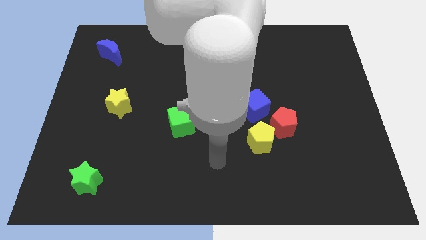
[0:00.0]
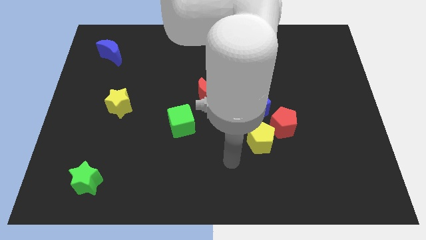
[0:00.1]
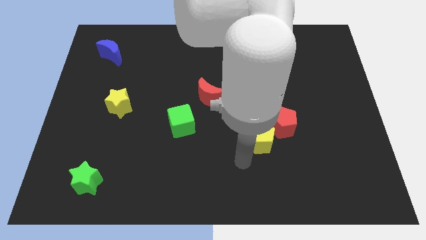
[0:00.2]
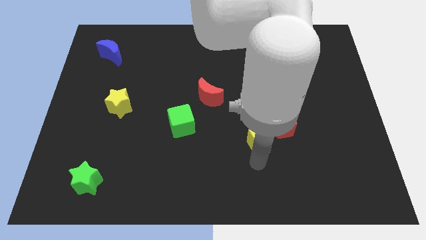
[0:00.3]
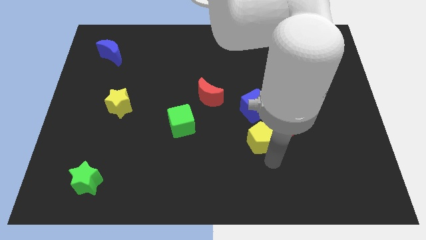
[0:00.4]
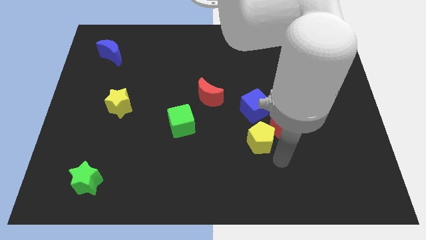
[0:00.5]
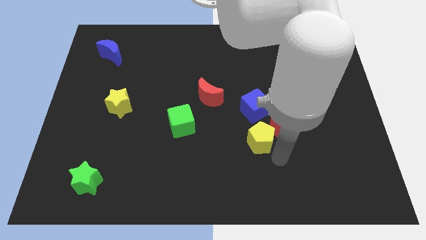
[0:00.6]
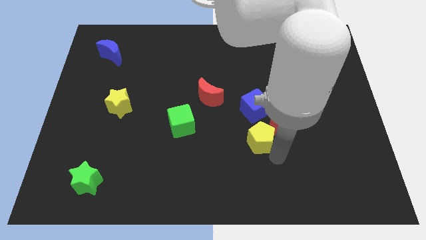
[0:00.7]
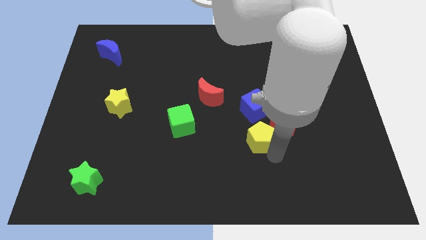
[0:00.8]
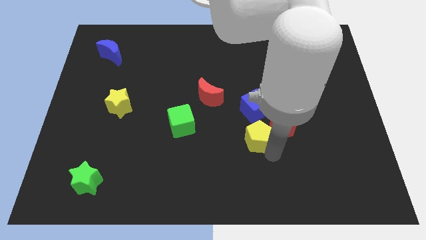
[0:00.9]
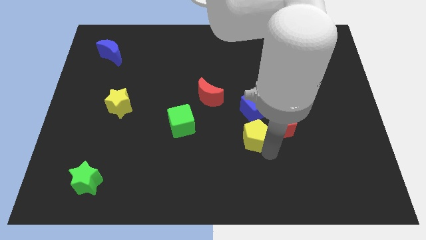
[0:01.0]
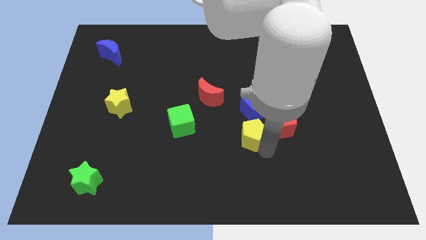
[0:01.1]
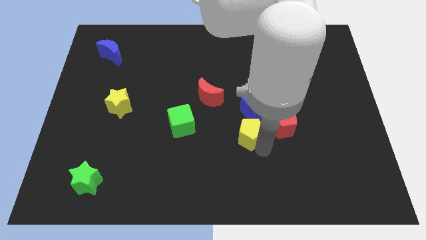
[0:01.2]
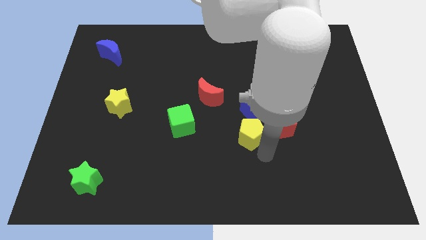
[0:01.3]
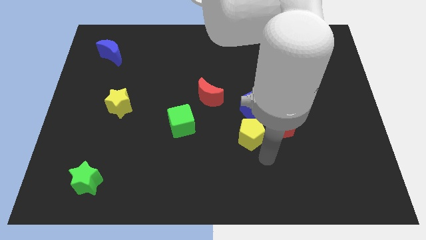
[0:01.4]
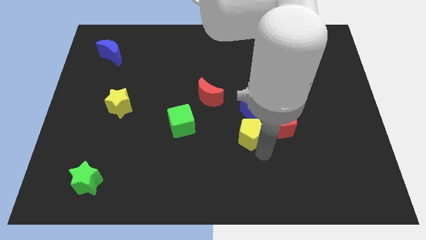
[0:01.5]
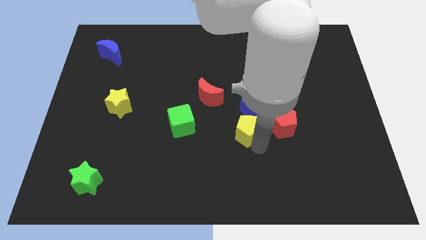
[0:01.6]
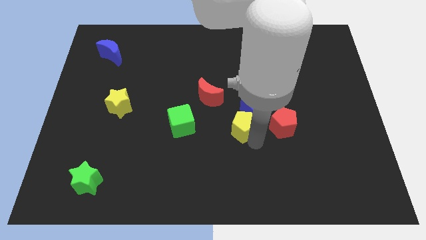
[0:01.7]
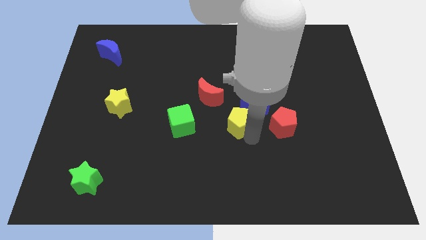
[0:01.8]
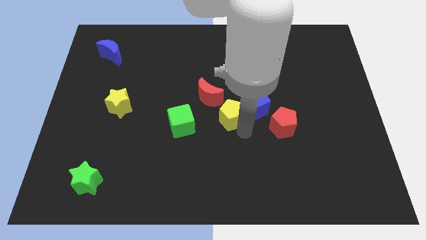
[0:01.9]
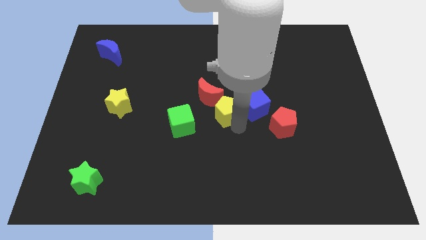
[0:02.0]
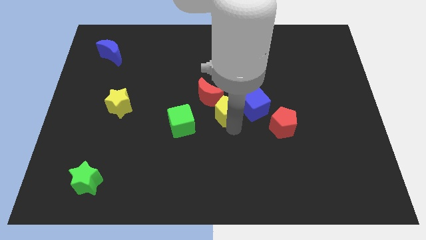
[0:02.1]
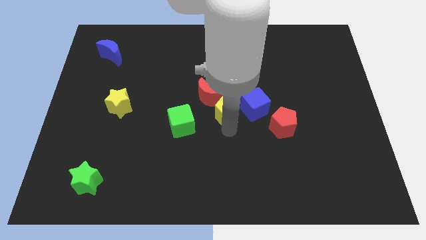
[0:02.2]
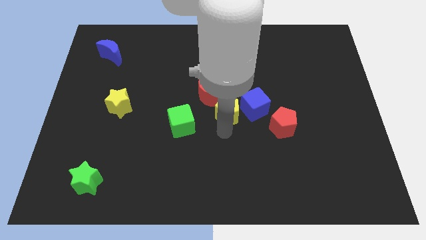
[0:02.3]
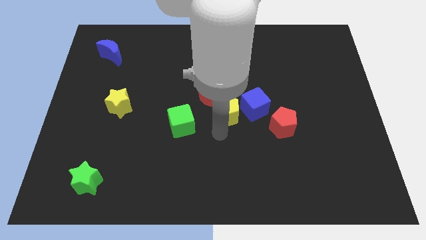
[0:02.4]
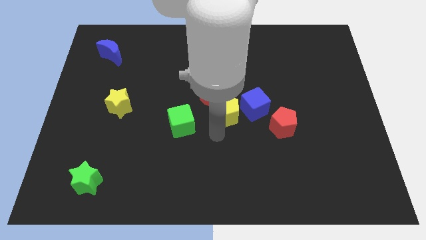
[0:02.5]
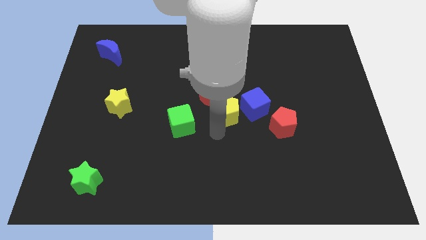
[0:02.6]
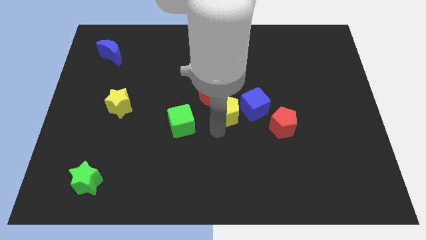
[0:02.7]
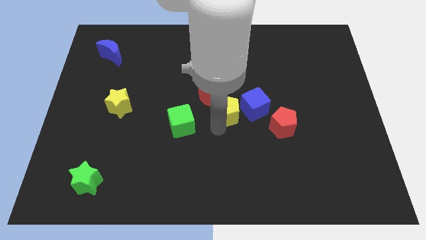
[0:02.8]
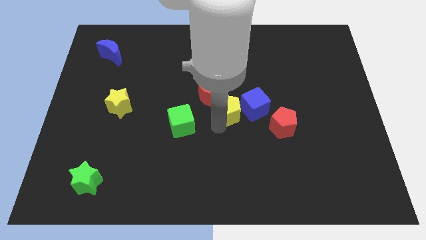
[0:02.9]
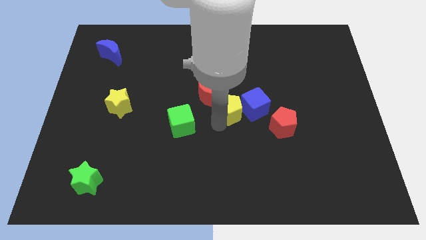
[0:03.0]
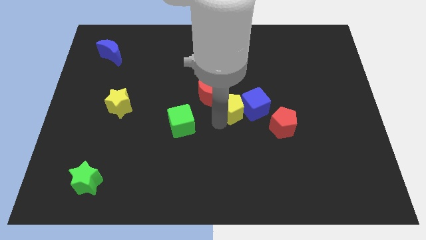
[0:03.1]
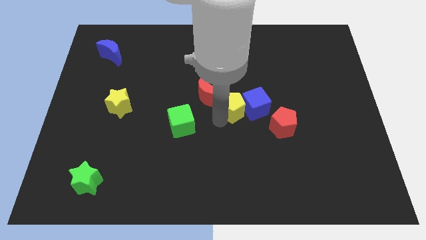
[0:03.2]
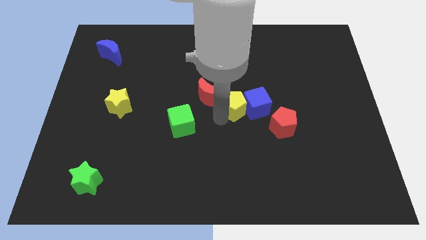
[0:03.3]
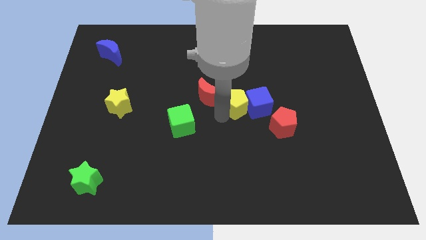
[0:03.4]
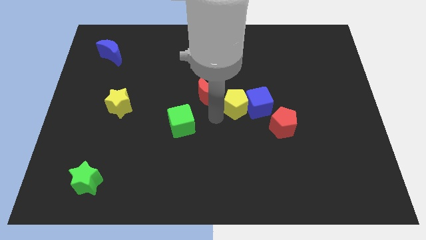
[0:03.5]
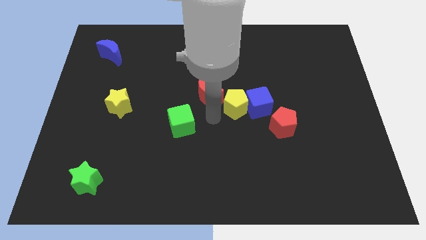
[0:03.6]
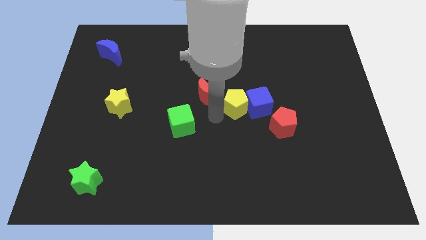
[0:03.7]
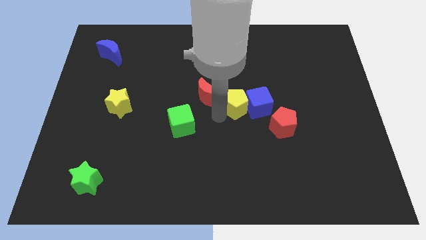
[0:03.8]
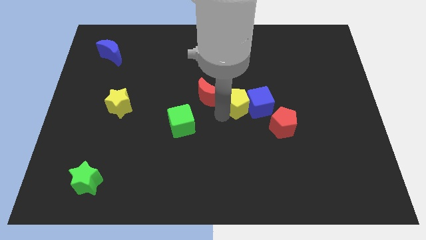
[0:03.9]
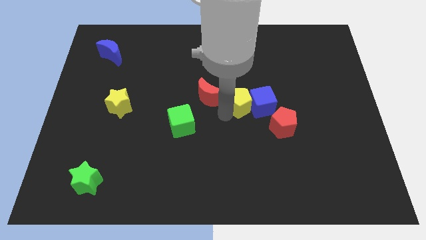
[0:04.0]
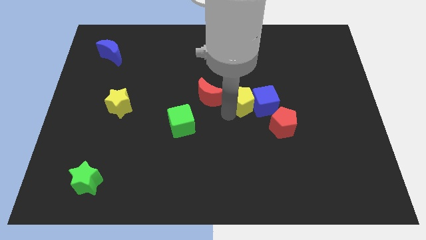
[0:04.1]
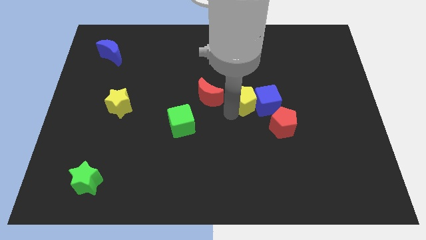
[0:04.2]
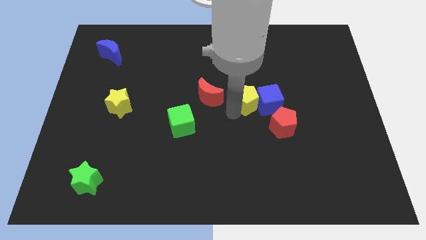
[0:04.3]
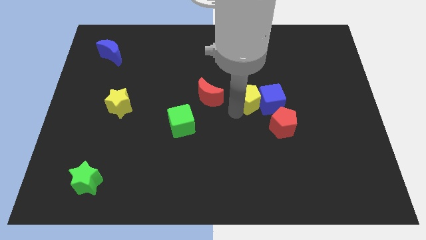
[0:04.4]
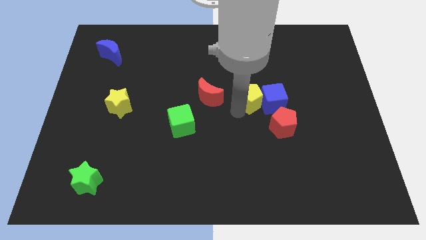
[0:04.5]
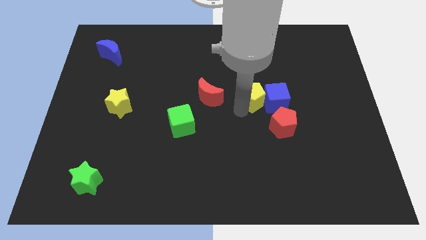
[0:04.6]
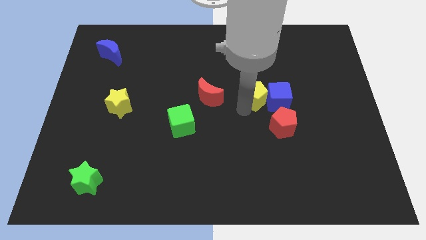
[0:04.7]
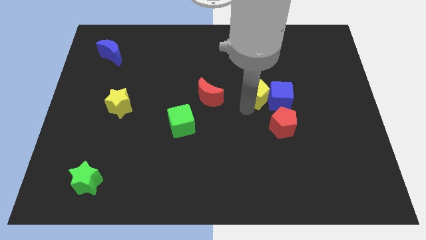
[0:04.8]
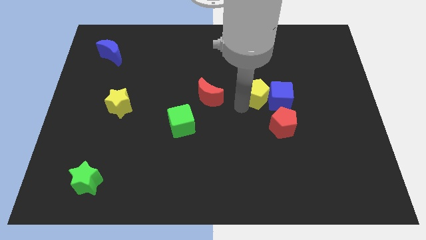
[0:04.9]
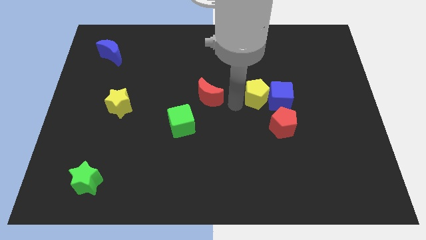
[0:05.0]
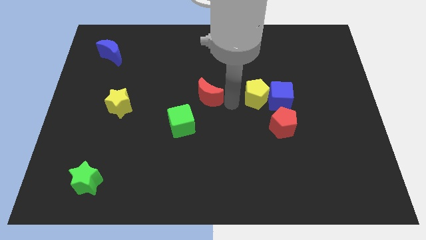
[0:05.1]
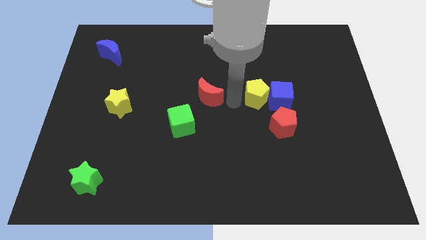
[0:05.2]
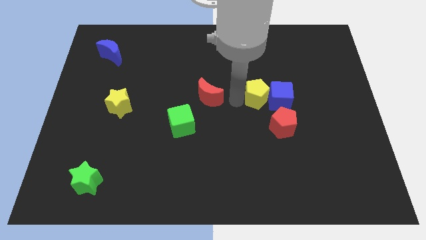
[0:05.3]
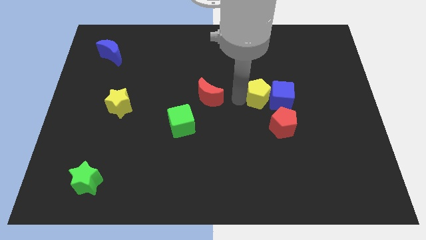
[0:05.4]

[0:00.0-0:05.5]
push the yellow pentagon to the top of the red pentagon

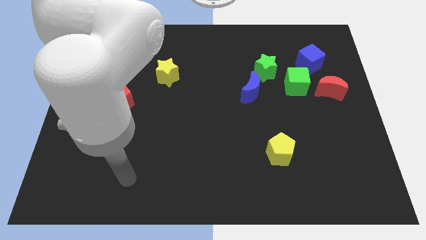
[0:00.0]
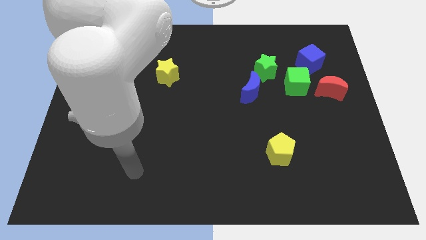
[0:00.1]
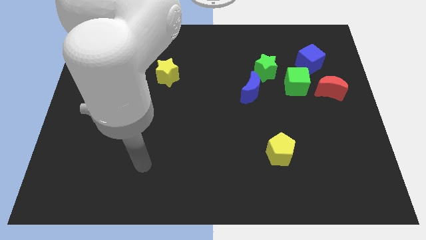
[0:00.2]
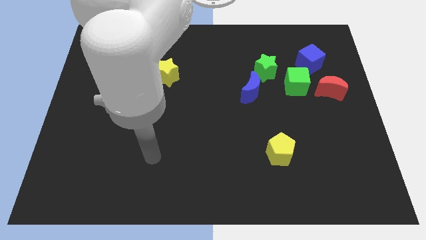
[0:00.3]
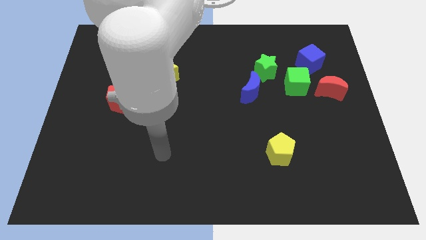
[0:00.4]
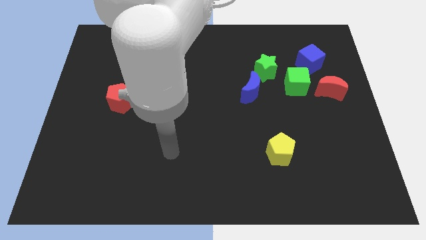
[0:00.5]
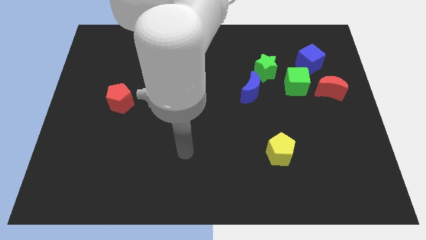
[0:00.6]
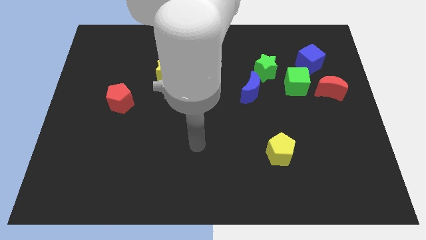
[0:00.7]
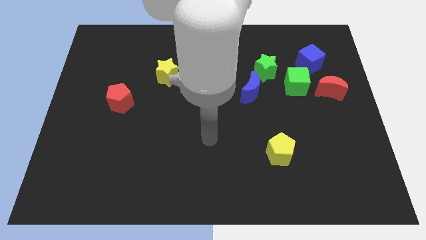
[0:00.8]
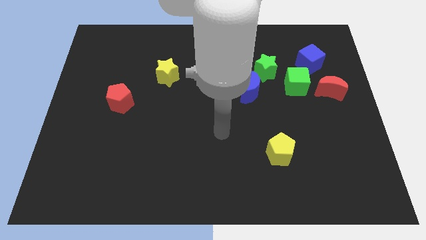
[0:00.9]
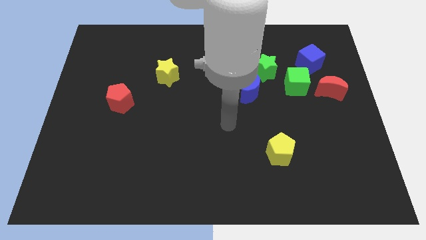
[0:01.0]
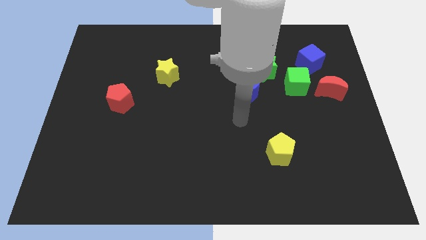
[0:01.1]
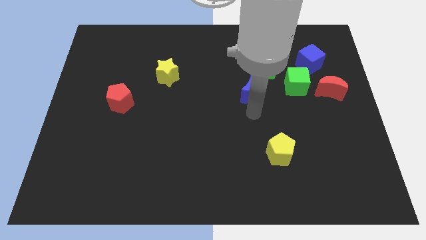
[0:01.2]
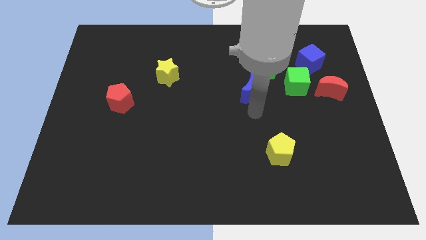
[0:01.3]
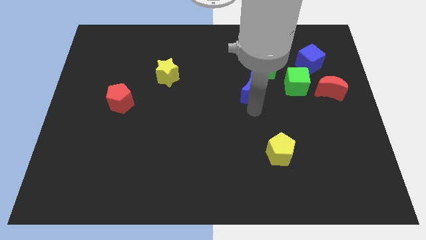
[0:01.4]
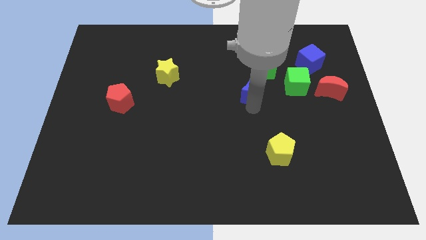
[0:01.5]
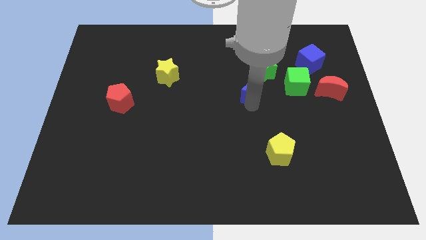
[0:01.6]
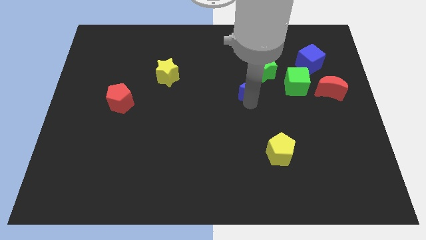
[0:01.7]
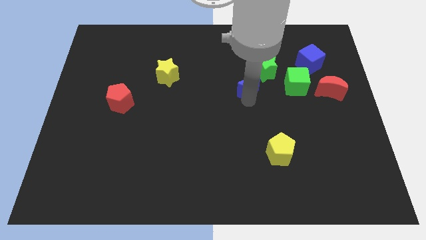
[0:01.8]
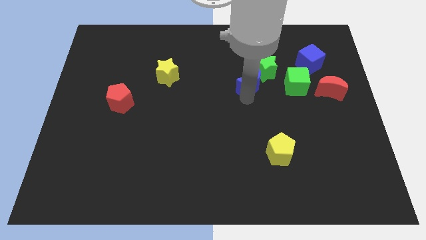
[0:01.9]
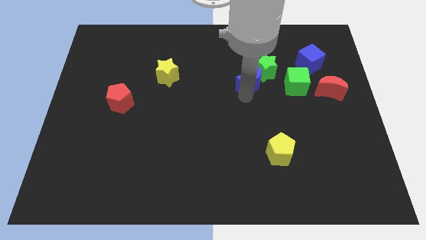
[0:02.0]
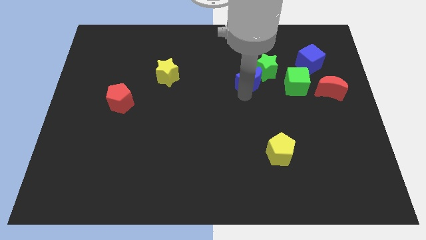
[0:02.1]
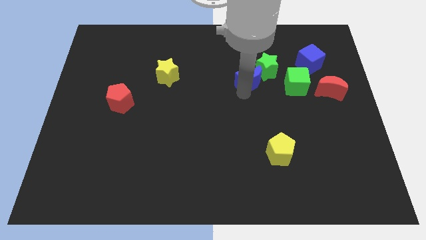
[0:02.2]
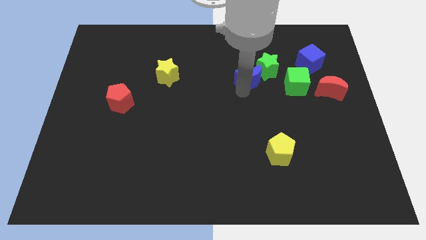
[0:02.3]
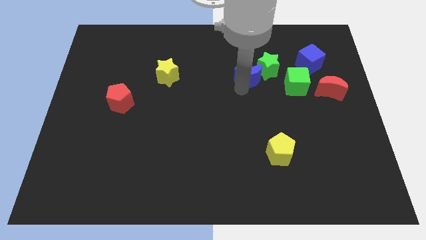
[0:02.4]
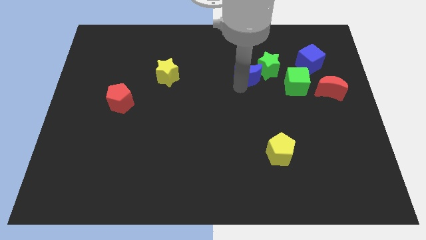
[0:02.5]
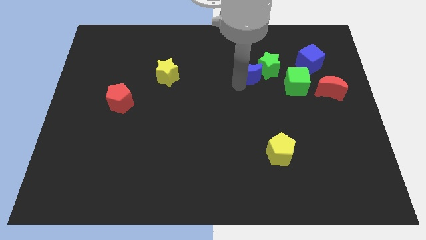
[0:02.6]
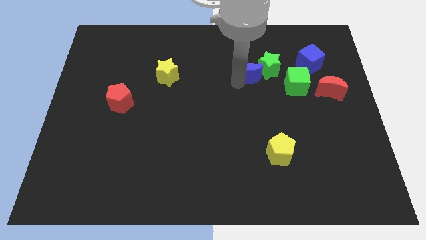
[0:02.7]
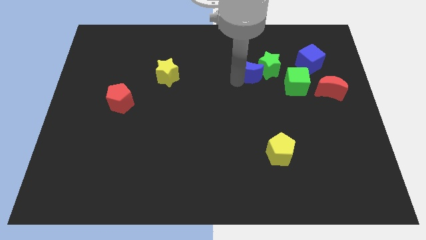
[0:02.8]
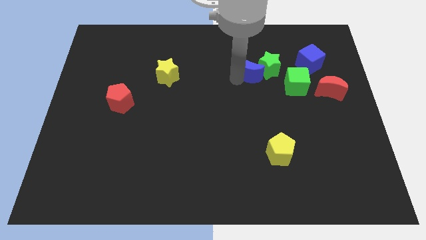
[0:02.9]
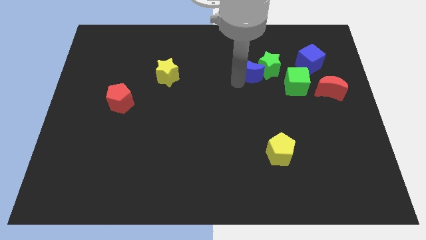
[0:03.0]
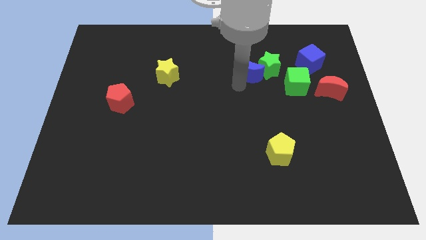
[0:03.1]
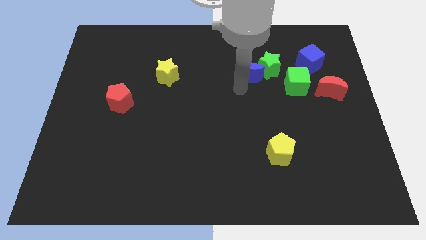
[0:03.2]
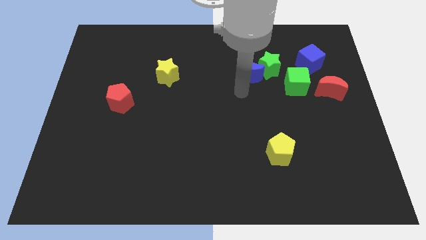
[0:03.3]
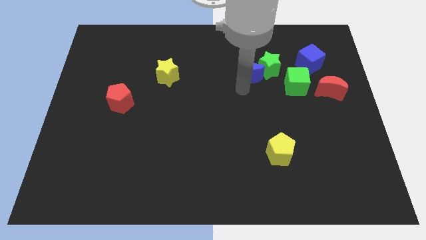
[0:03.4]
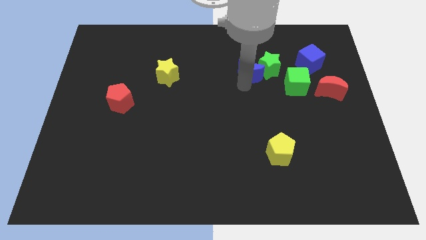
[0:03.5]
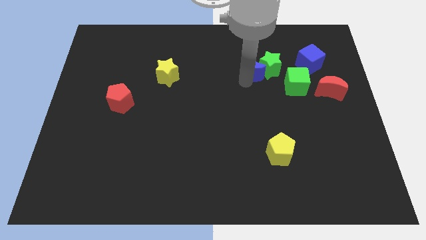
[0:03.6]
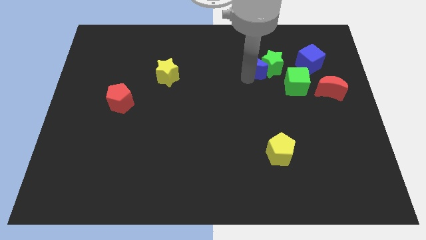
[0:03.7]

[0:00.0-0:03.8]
slide the blue moon just left of the blue cube
